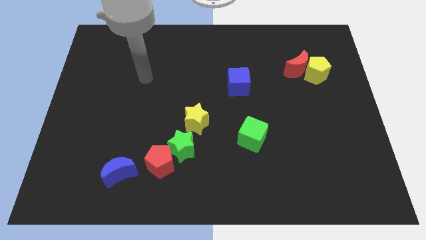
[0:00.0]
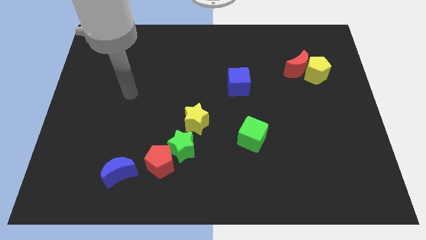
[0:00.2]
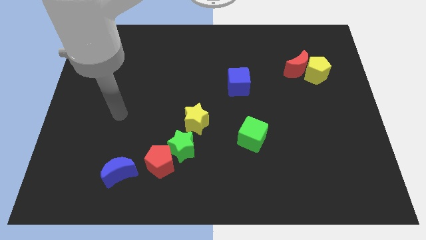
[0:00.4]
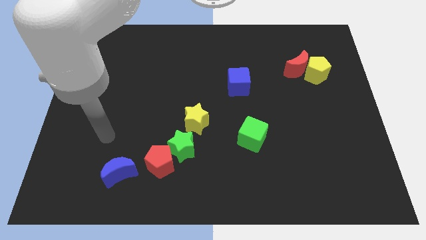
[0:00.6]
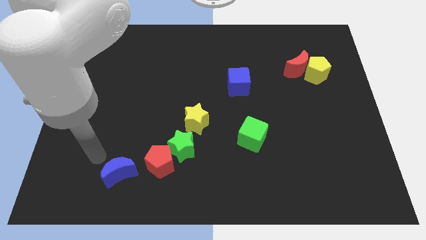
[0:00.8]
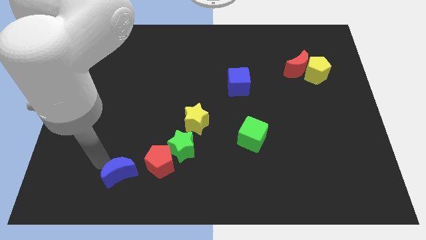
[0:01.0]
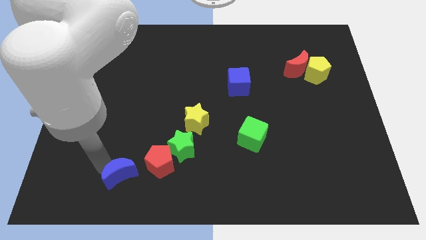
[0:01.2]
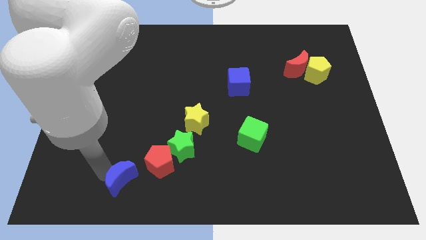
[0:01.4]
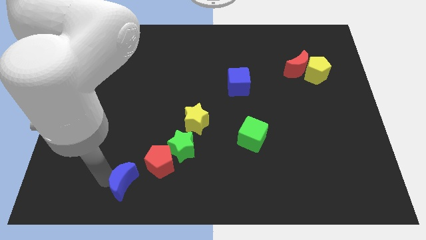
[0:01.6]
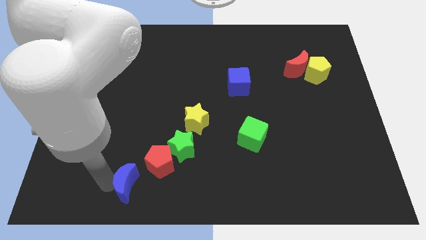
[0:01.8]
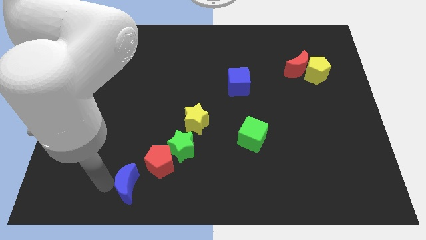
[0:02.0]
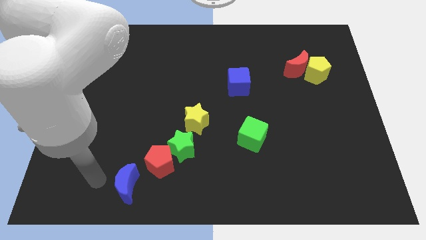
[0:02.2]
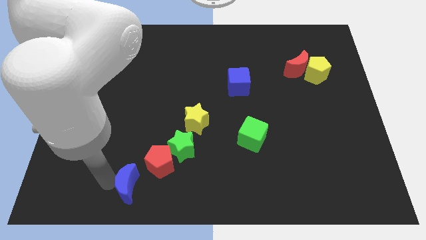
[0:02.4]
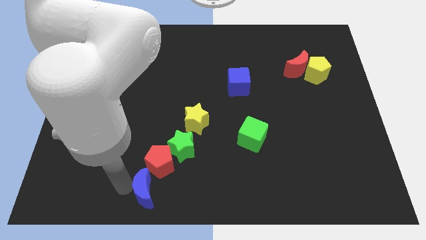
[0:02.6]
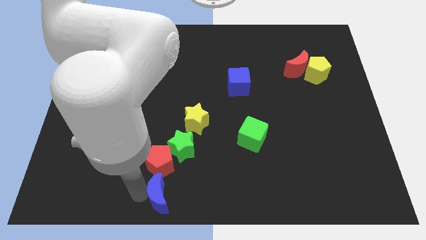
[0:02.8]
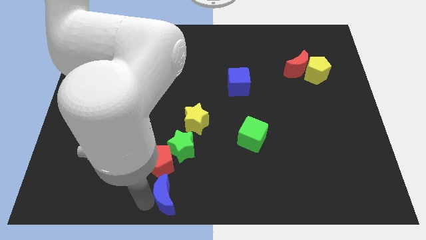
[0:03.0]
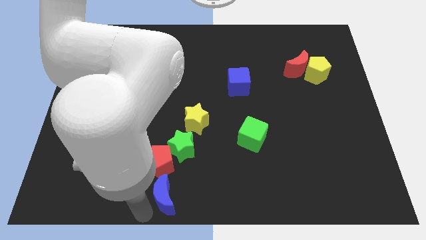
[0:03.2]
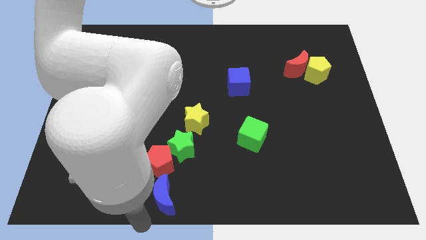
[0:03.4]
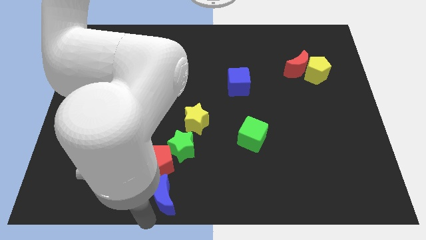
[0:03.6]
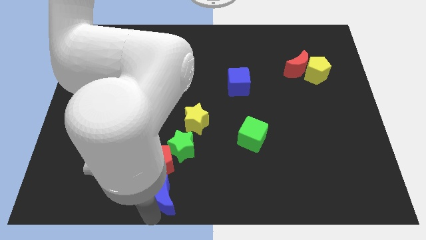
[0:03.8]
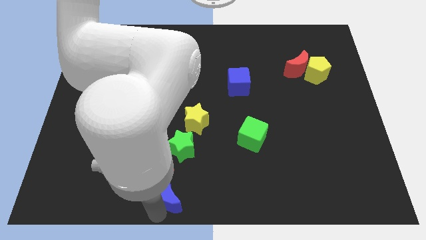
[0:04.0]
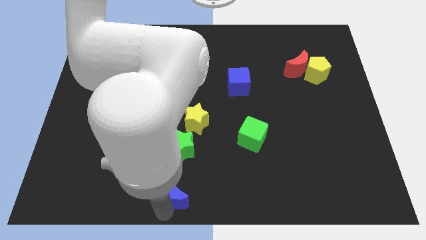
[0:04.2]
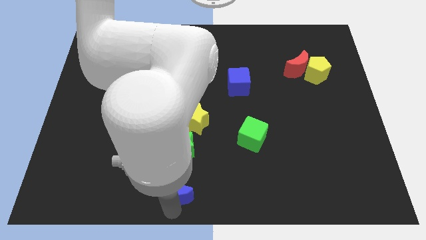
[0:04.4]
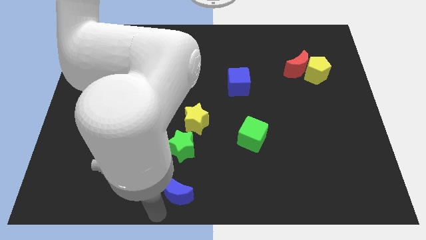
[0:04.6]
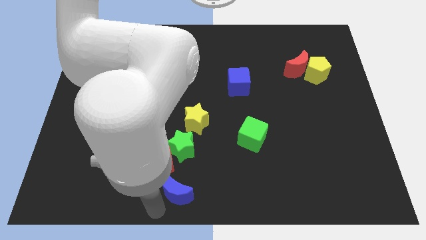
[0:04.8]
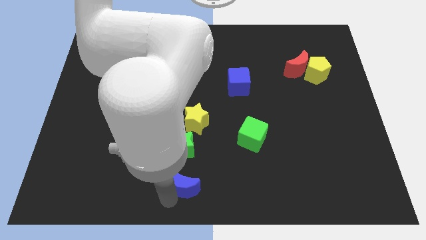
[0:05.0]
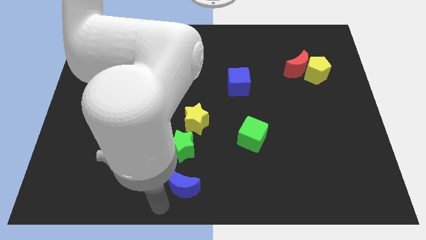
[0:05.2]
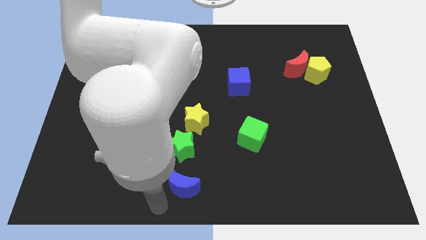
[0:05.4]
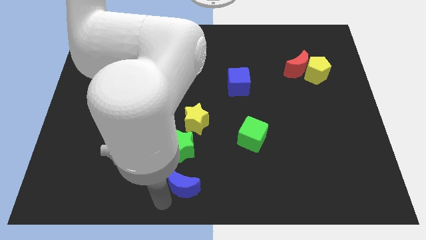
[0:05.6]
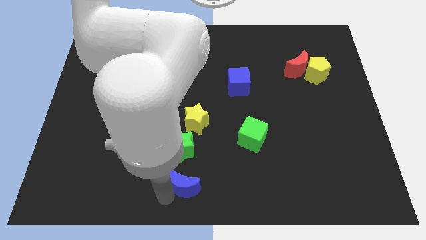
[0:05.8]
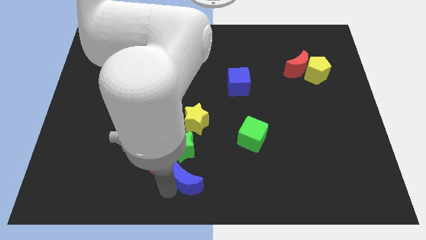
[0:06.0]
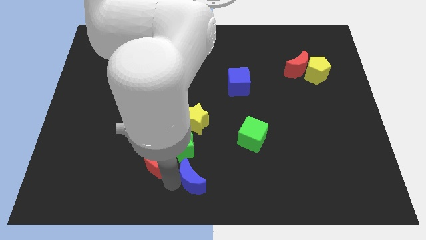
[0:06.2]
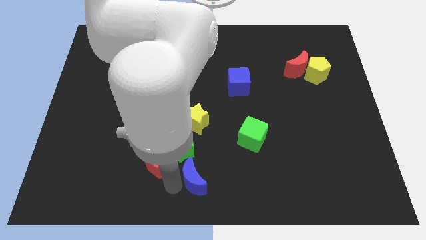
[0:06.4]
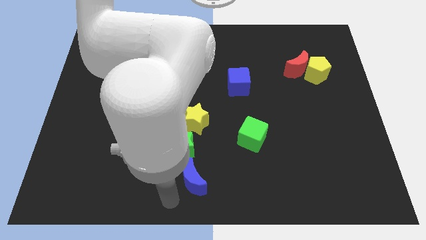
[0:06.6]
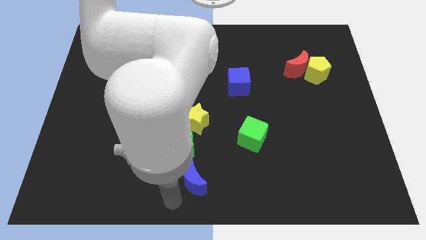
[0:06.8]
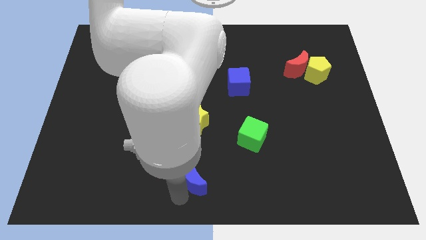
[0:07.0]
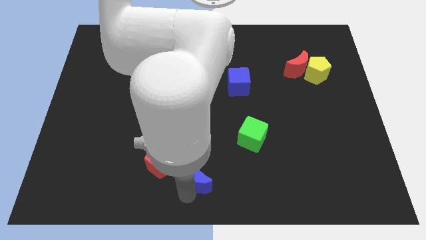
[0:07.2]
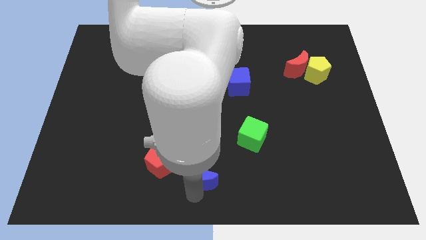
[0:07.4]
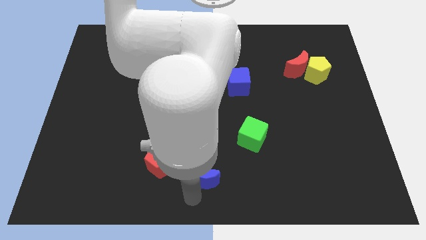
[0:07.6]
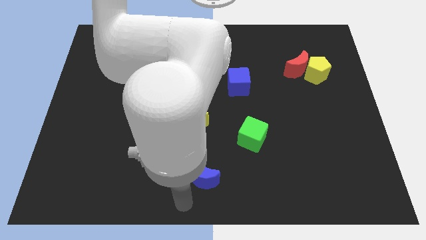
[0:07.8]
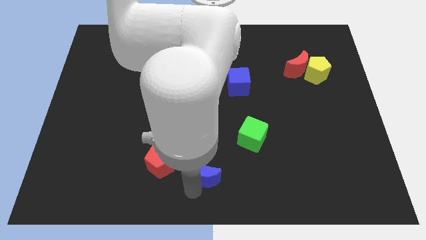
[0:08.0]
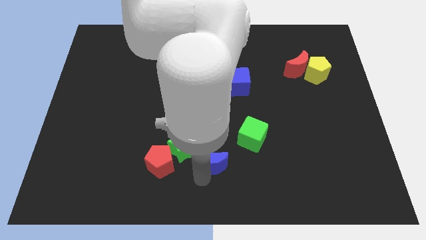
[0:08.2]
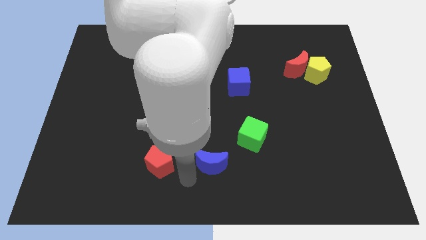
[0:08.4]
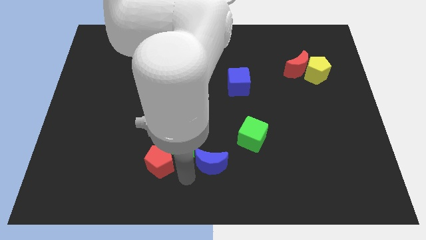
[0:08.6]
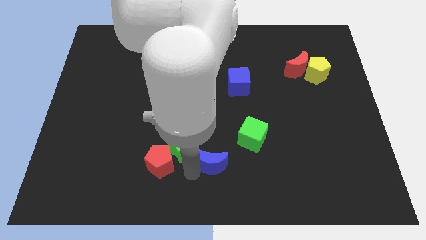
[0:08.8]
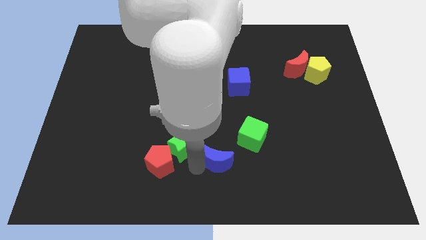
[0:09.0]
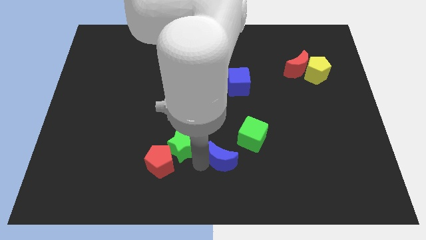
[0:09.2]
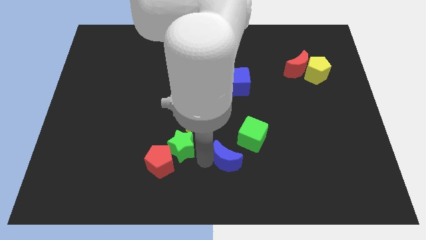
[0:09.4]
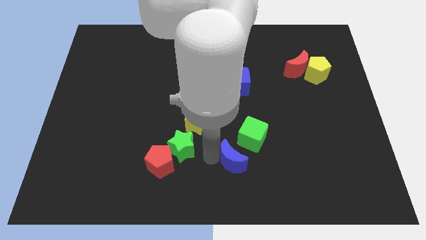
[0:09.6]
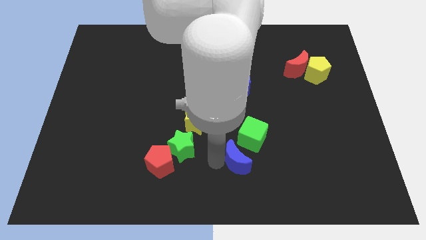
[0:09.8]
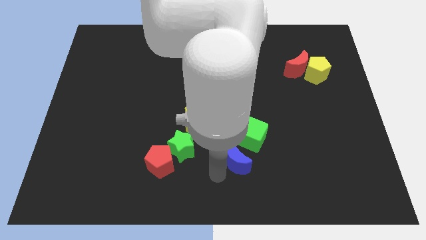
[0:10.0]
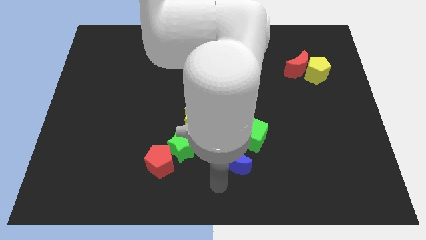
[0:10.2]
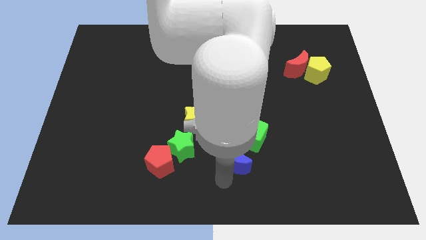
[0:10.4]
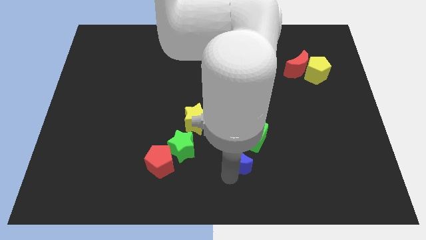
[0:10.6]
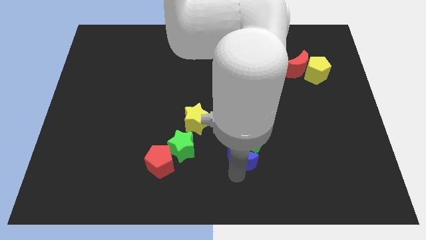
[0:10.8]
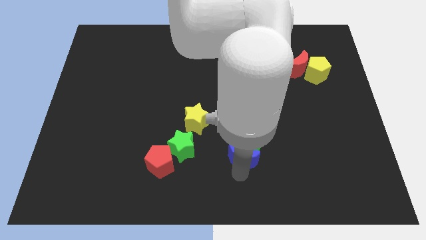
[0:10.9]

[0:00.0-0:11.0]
put the blue moon towards the green cube

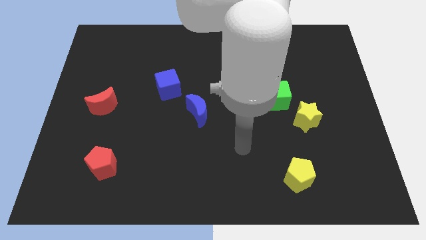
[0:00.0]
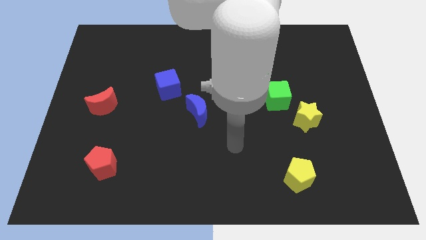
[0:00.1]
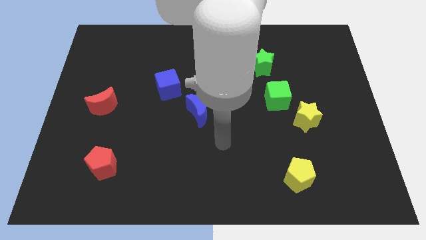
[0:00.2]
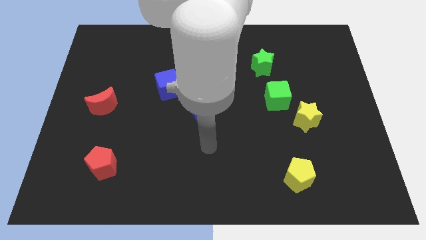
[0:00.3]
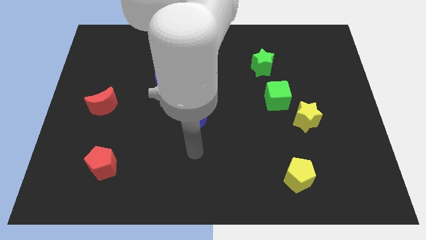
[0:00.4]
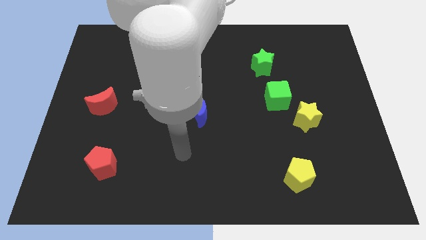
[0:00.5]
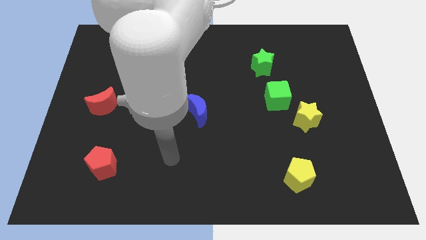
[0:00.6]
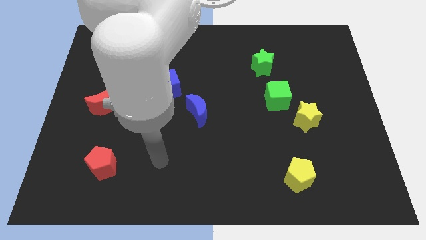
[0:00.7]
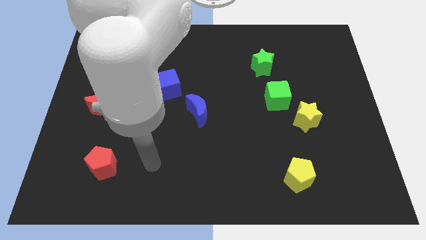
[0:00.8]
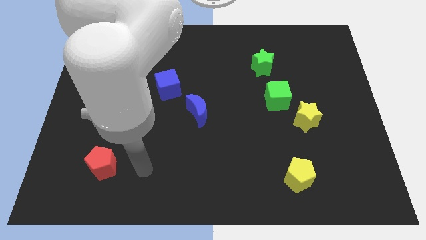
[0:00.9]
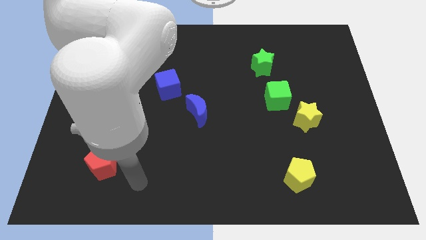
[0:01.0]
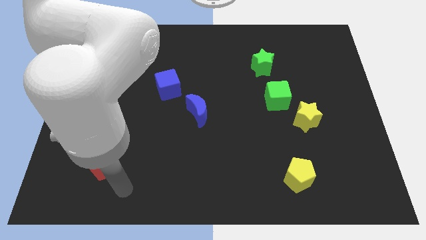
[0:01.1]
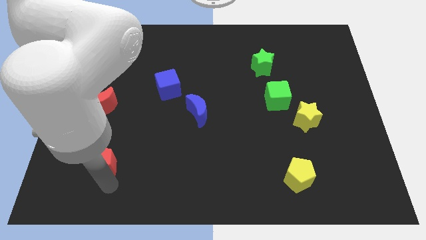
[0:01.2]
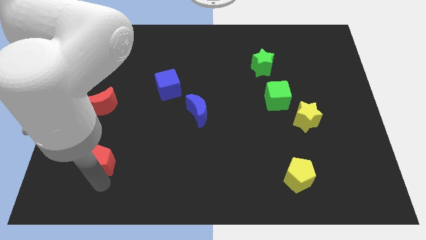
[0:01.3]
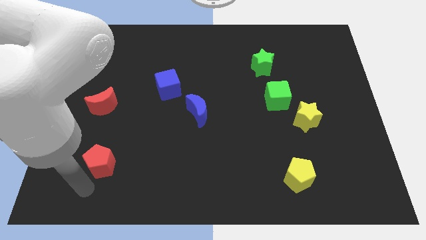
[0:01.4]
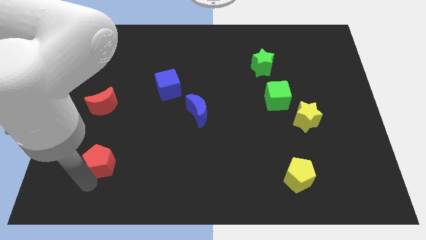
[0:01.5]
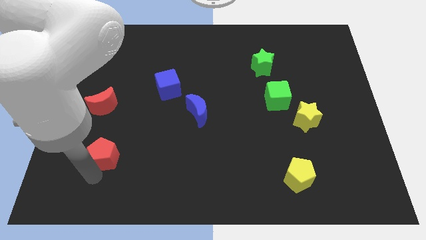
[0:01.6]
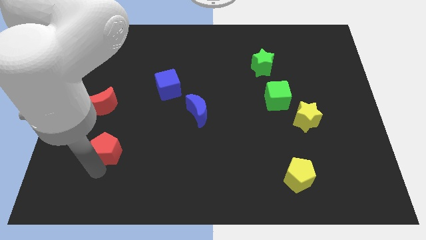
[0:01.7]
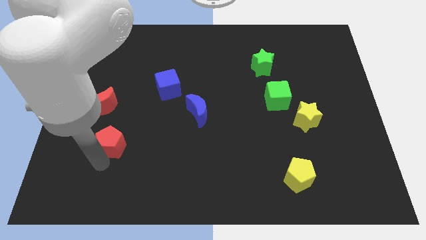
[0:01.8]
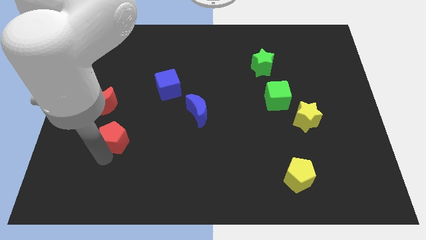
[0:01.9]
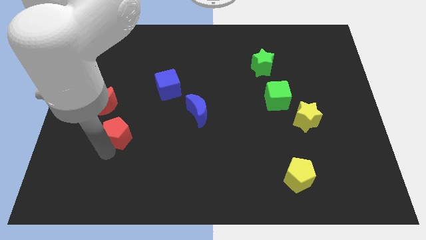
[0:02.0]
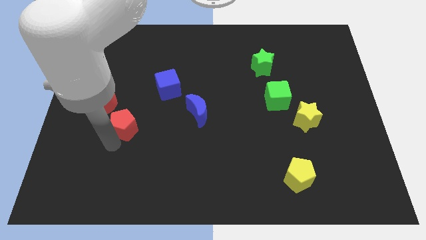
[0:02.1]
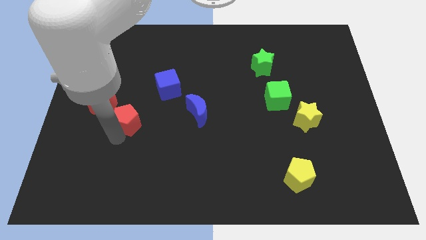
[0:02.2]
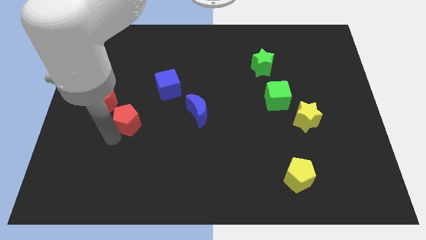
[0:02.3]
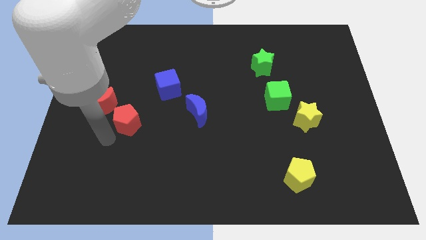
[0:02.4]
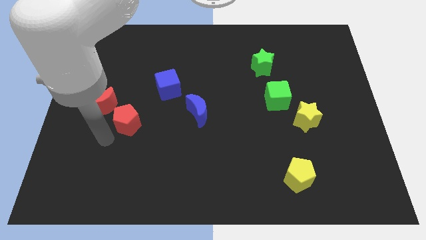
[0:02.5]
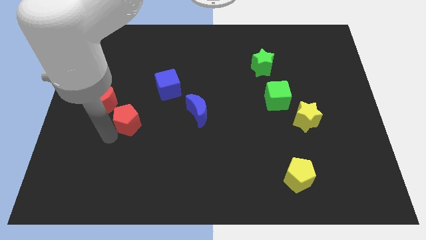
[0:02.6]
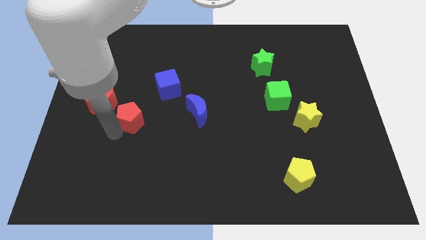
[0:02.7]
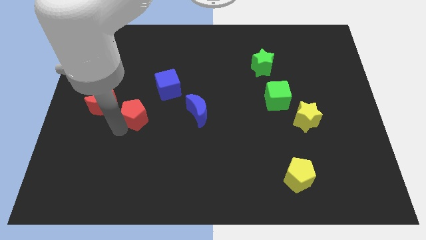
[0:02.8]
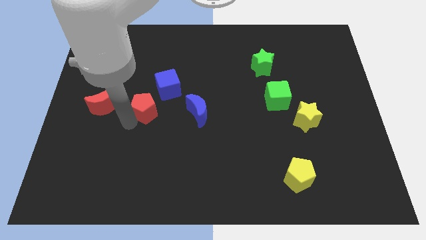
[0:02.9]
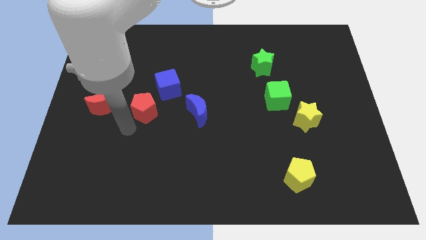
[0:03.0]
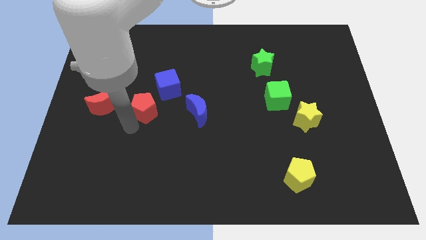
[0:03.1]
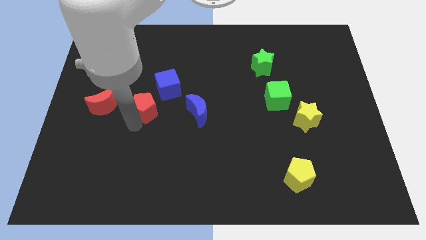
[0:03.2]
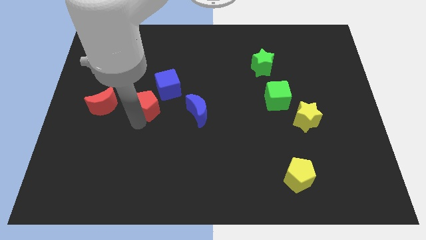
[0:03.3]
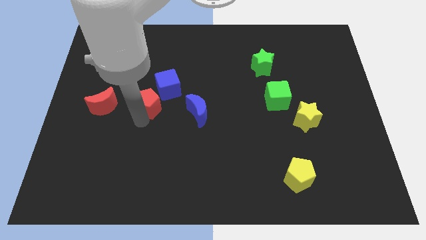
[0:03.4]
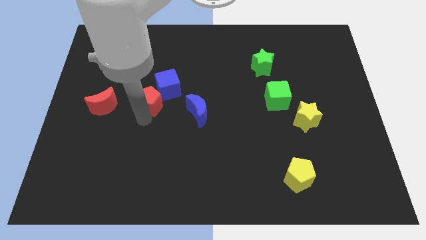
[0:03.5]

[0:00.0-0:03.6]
push the red pentagon to the blue cube
